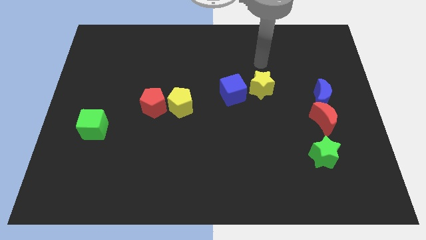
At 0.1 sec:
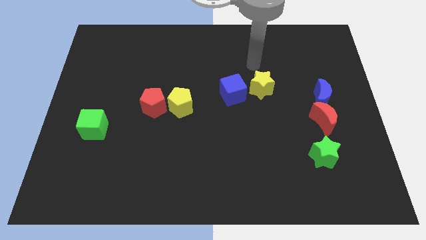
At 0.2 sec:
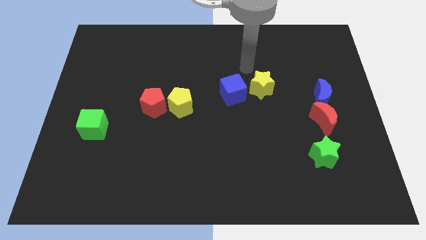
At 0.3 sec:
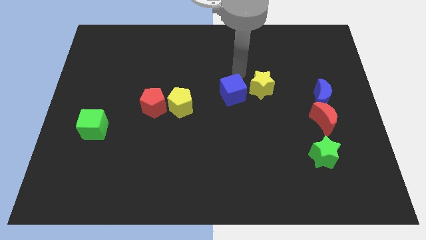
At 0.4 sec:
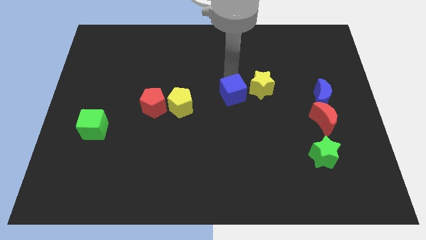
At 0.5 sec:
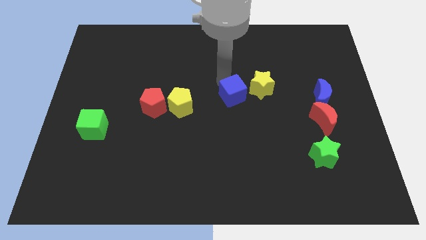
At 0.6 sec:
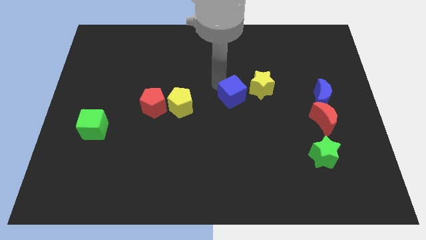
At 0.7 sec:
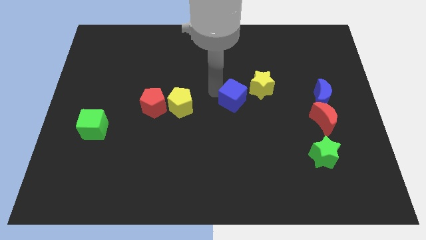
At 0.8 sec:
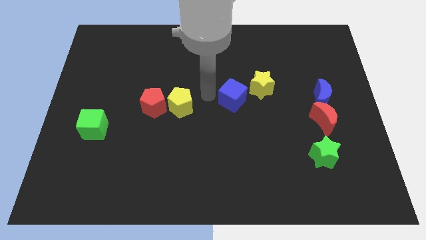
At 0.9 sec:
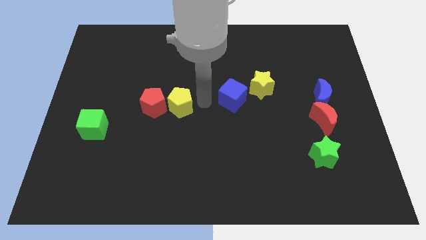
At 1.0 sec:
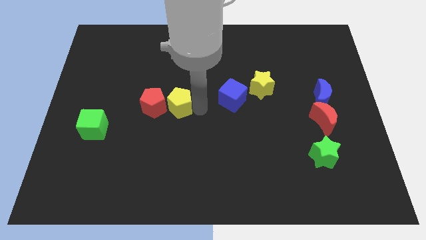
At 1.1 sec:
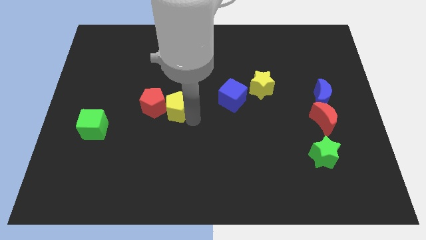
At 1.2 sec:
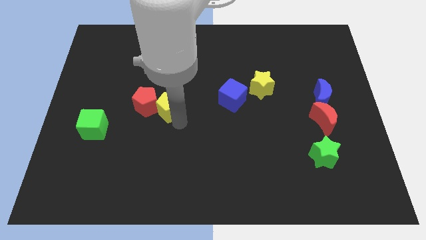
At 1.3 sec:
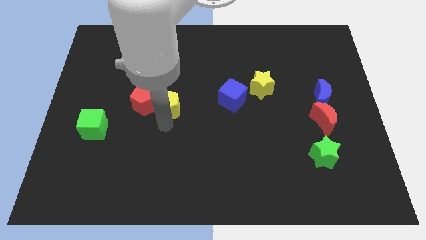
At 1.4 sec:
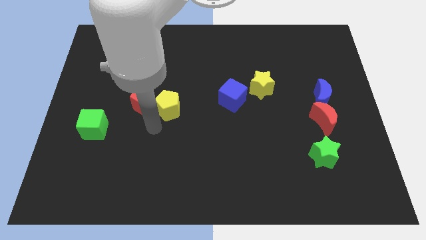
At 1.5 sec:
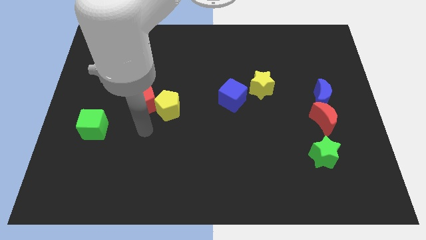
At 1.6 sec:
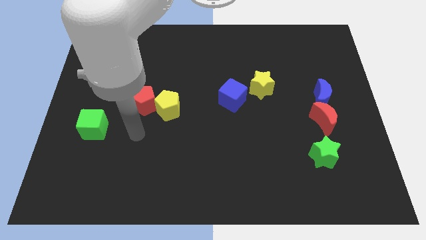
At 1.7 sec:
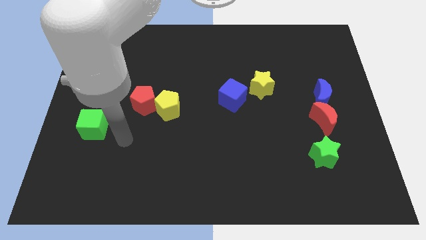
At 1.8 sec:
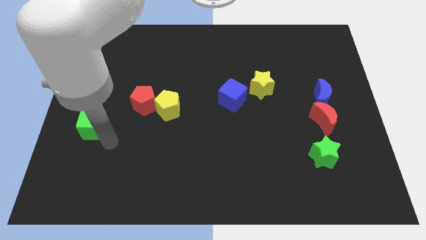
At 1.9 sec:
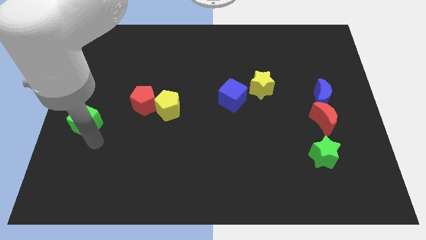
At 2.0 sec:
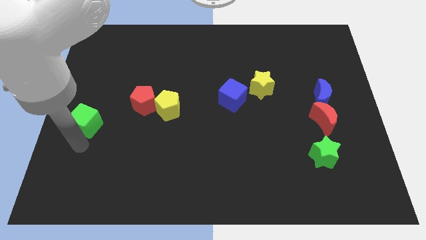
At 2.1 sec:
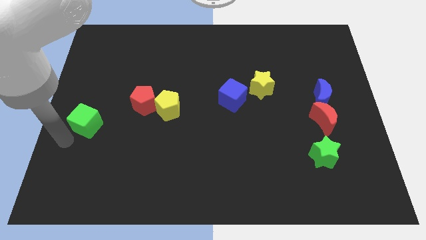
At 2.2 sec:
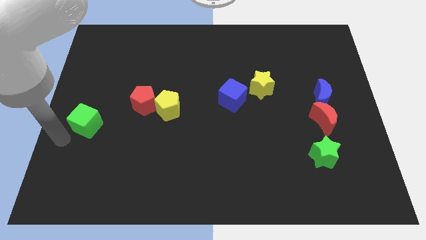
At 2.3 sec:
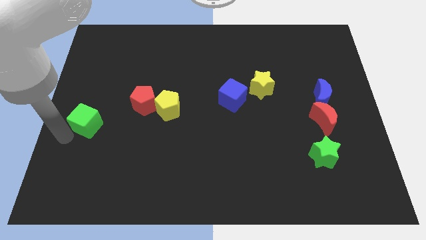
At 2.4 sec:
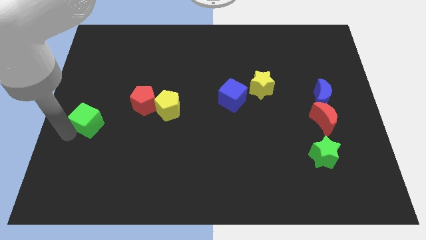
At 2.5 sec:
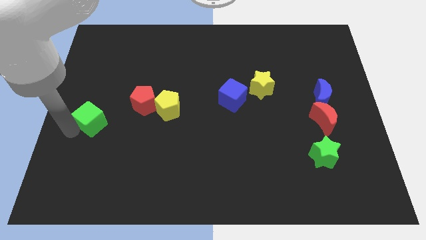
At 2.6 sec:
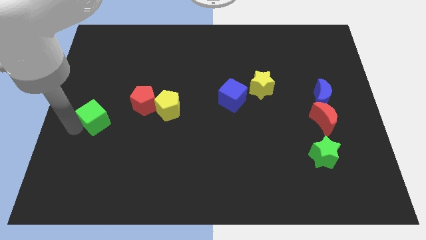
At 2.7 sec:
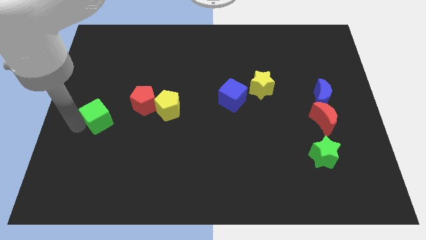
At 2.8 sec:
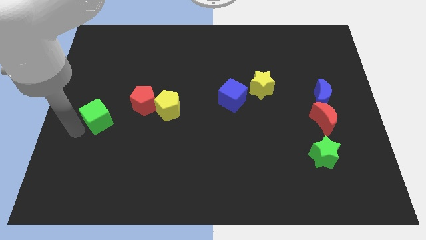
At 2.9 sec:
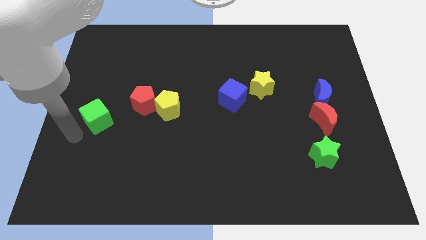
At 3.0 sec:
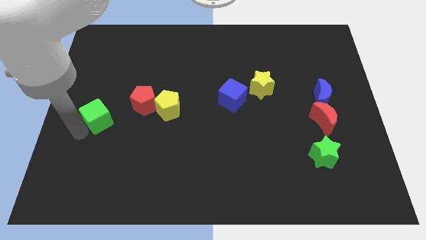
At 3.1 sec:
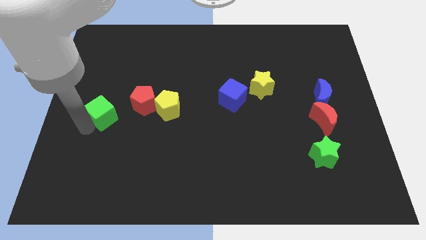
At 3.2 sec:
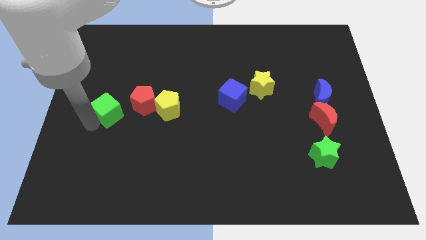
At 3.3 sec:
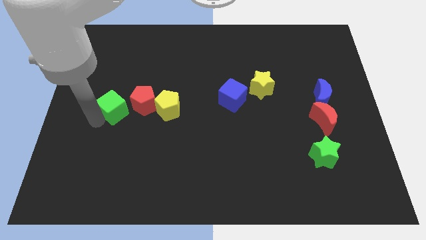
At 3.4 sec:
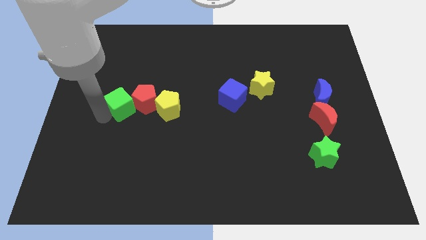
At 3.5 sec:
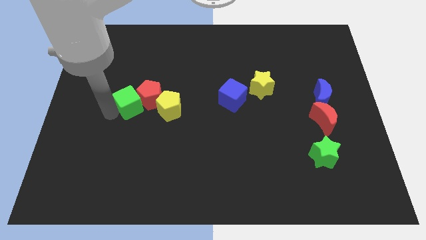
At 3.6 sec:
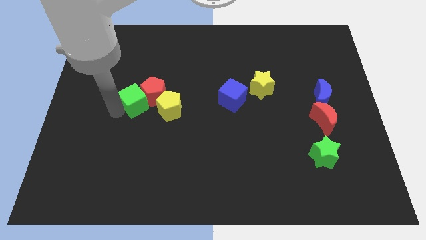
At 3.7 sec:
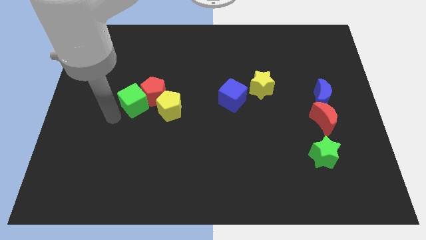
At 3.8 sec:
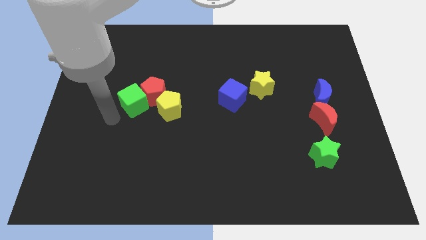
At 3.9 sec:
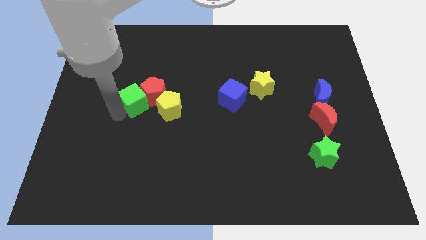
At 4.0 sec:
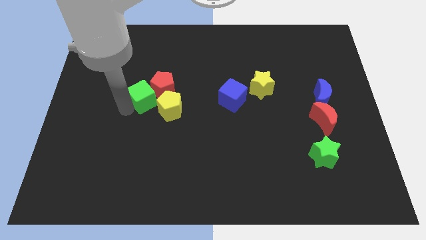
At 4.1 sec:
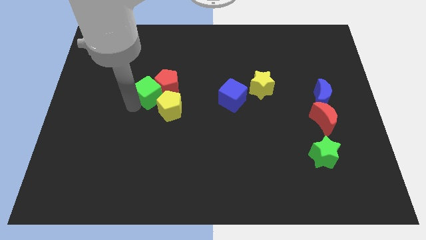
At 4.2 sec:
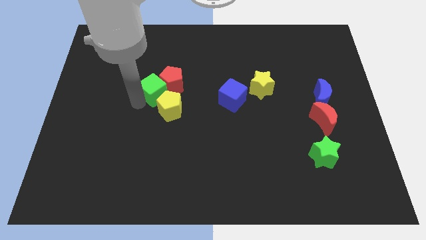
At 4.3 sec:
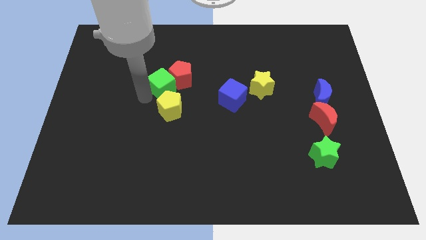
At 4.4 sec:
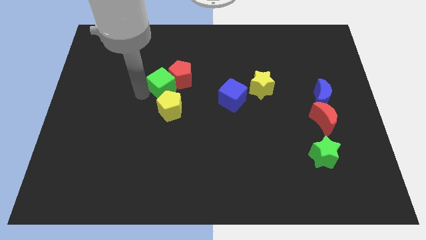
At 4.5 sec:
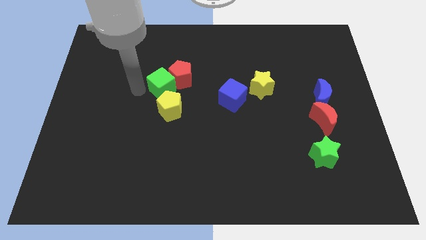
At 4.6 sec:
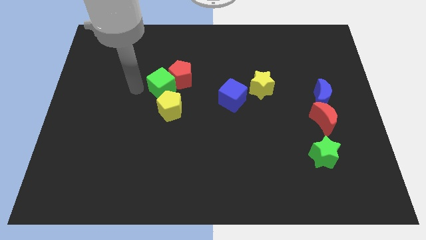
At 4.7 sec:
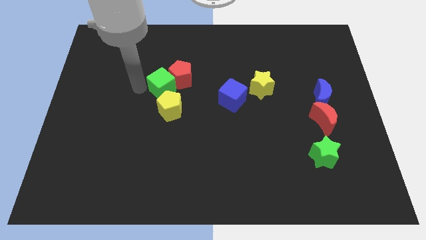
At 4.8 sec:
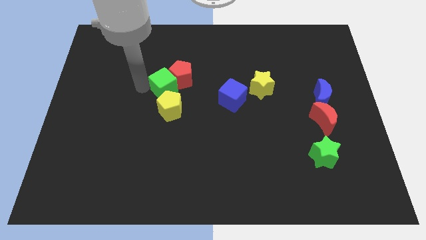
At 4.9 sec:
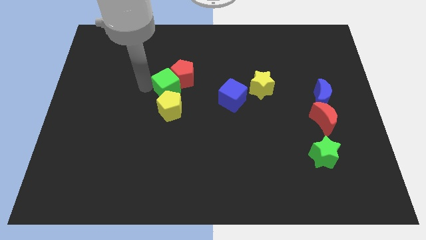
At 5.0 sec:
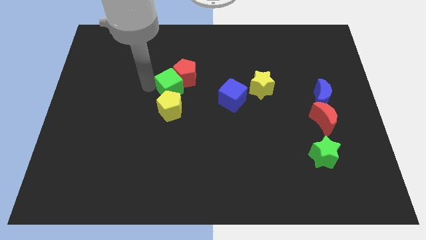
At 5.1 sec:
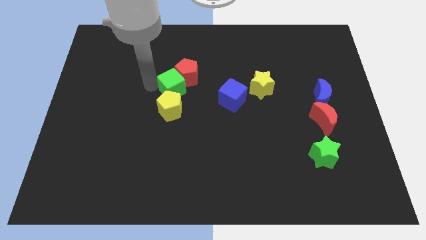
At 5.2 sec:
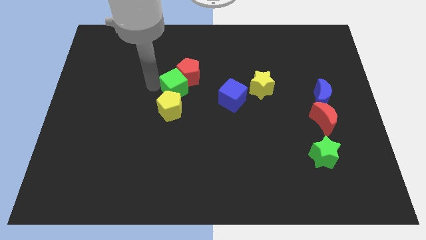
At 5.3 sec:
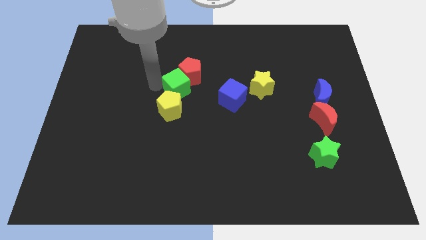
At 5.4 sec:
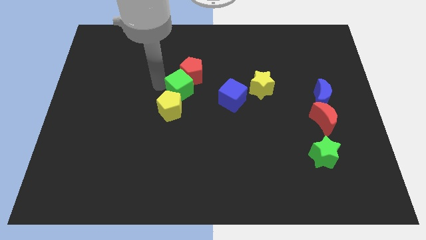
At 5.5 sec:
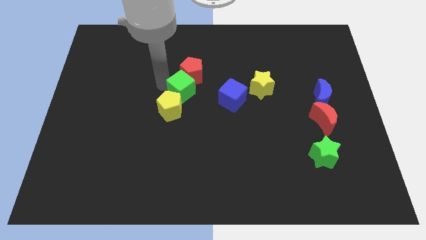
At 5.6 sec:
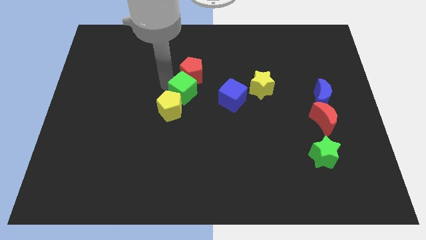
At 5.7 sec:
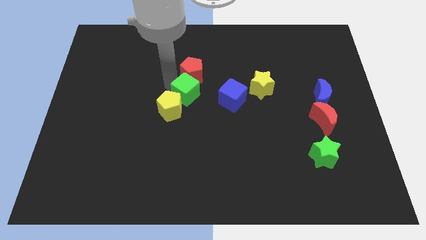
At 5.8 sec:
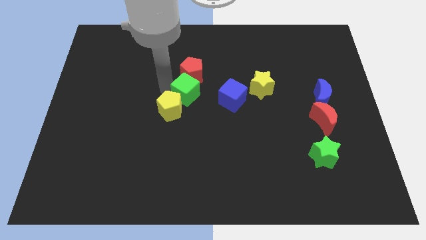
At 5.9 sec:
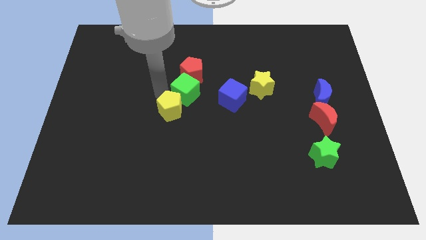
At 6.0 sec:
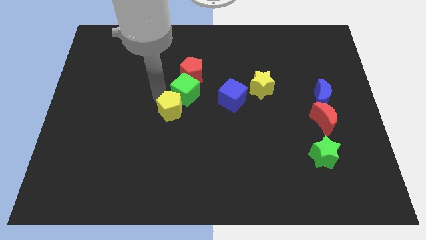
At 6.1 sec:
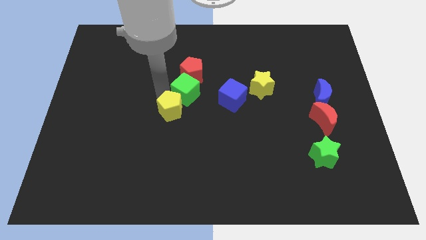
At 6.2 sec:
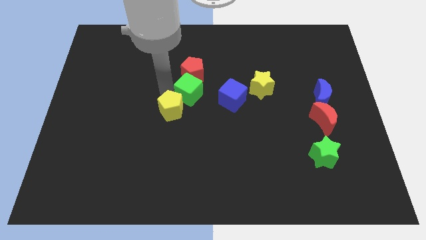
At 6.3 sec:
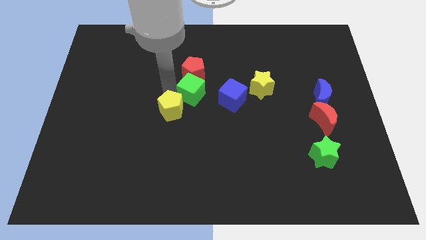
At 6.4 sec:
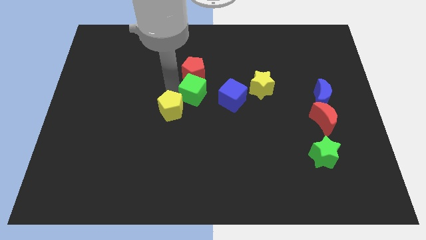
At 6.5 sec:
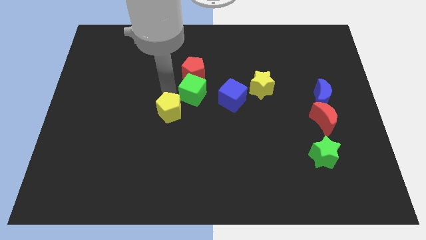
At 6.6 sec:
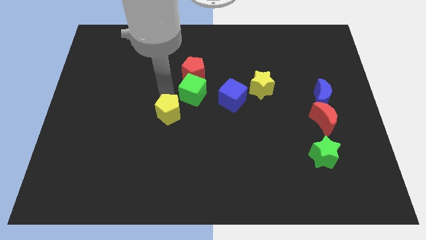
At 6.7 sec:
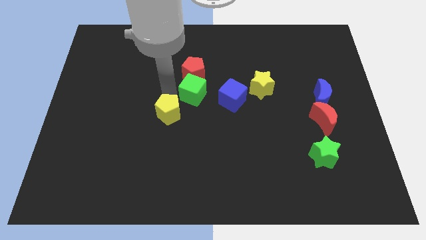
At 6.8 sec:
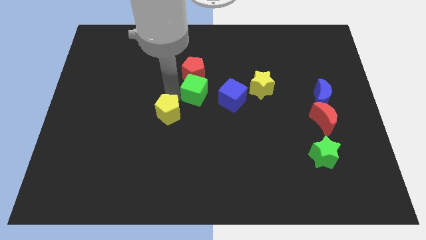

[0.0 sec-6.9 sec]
push the green cube left of the yellow star
